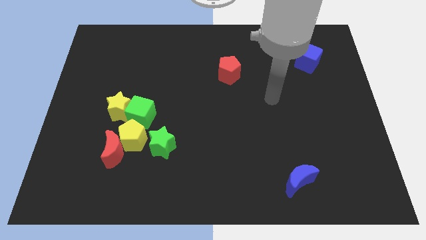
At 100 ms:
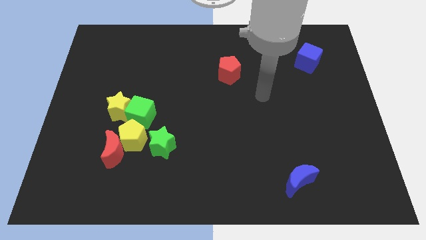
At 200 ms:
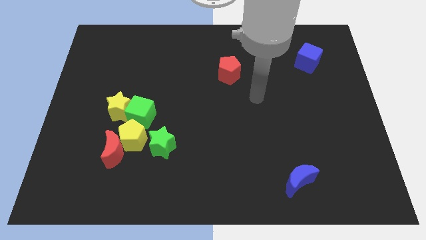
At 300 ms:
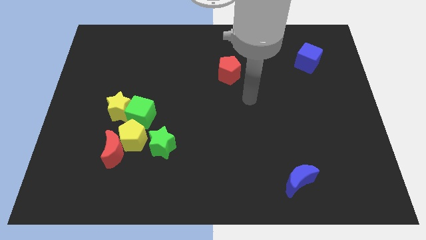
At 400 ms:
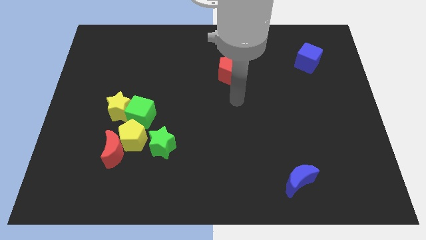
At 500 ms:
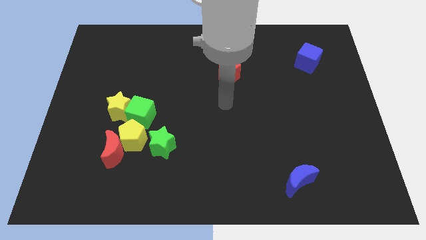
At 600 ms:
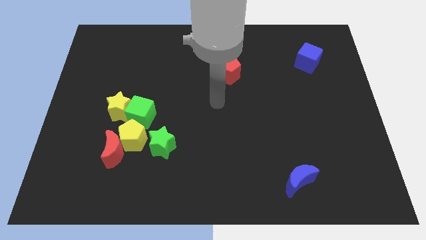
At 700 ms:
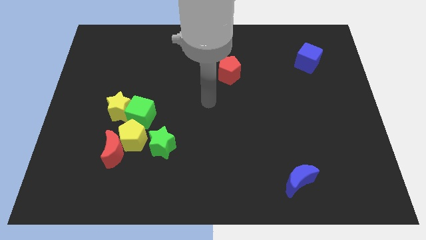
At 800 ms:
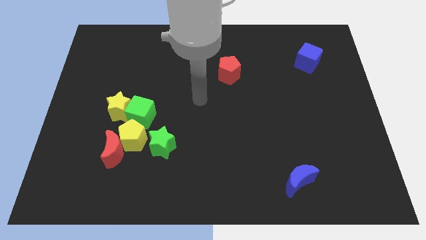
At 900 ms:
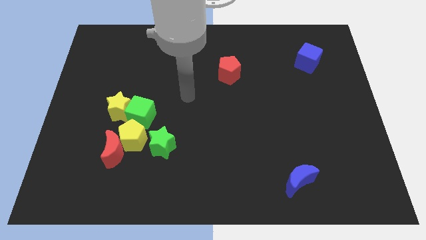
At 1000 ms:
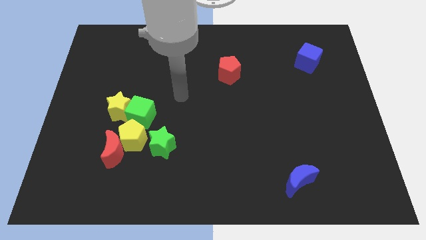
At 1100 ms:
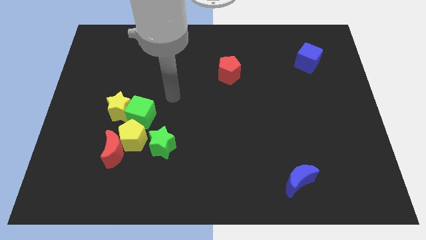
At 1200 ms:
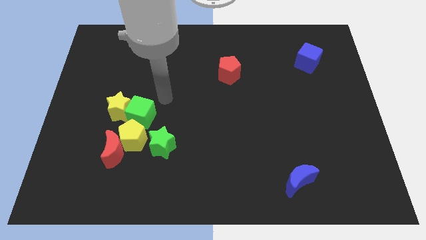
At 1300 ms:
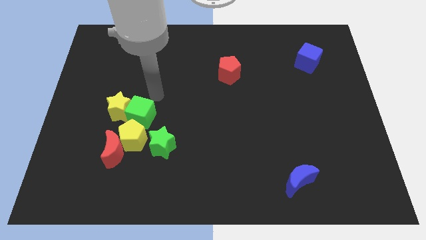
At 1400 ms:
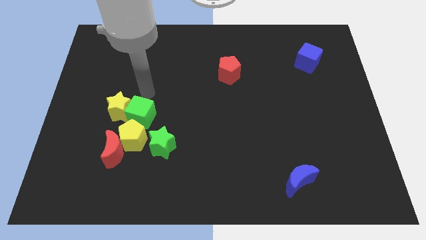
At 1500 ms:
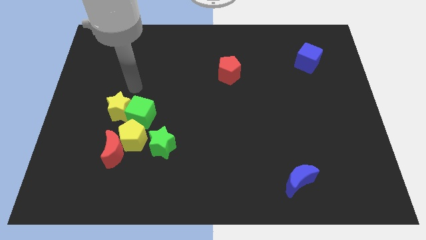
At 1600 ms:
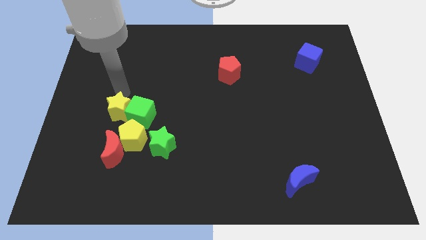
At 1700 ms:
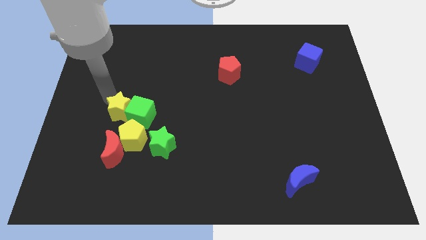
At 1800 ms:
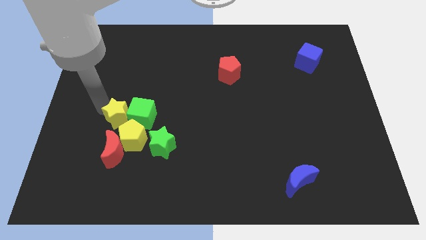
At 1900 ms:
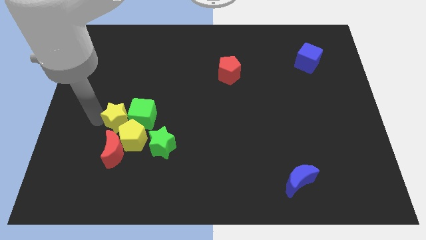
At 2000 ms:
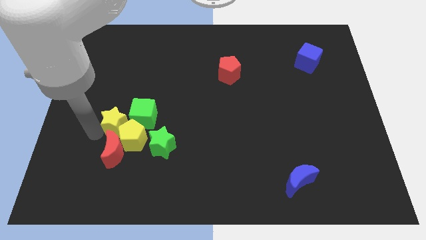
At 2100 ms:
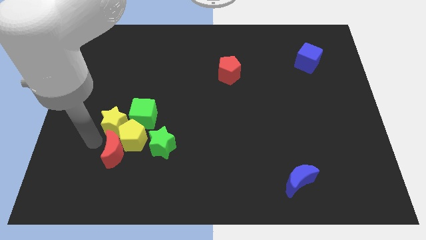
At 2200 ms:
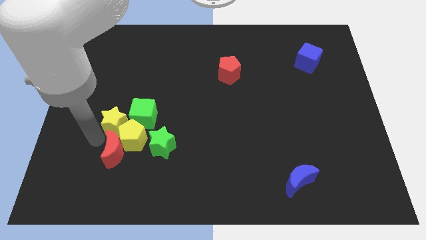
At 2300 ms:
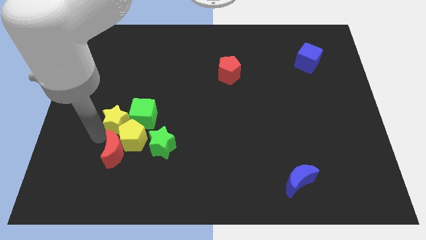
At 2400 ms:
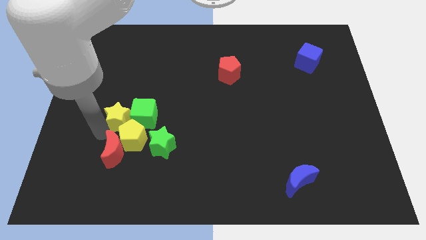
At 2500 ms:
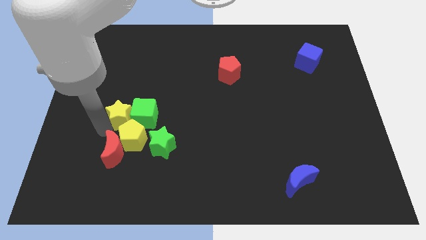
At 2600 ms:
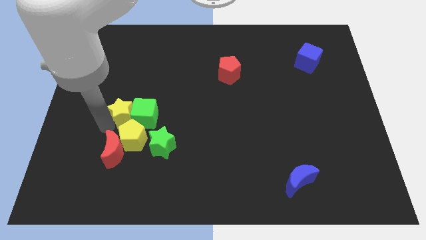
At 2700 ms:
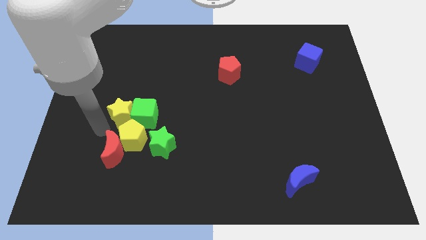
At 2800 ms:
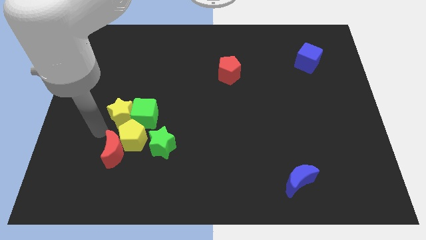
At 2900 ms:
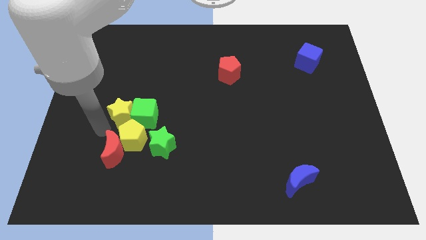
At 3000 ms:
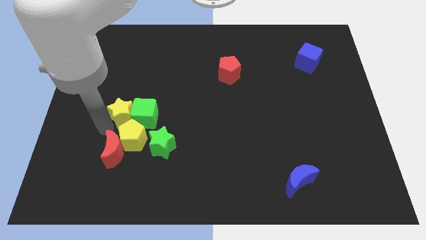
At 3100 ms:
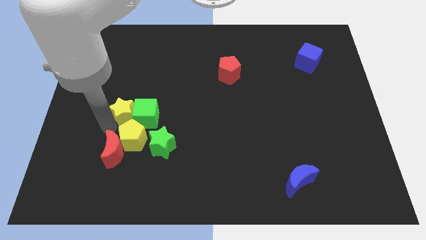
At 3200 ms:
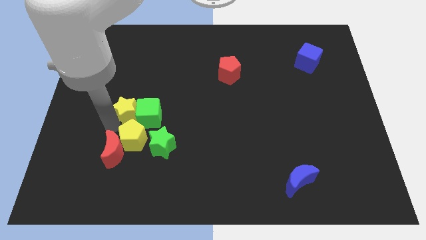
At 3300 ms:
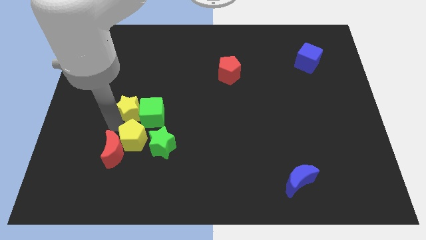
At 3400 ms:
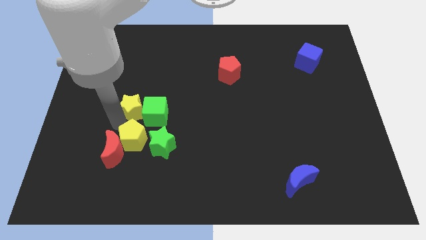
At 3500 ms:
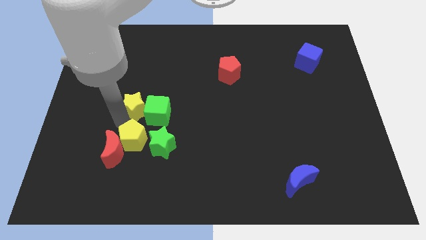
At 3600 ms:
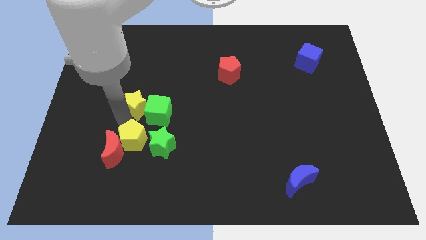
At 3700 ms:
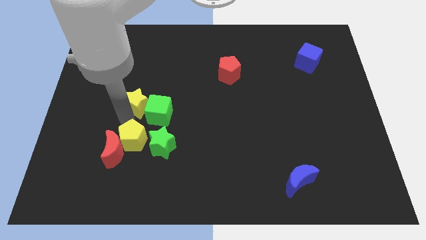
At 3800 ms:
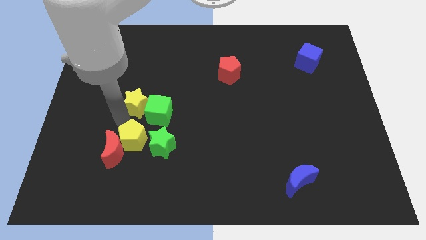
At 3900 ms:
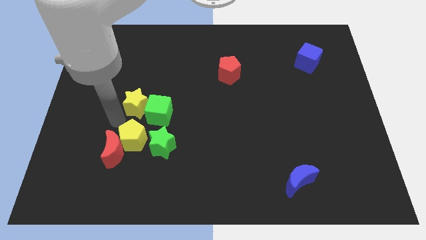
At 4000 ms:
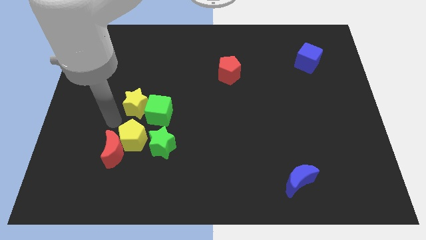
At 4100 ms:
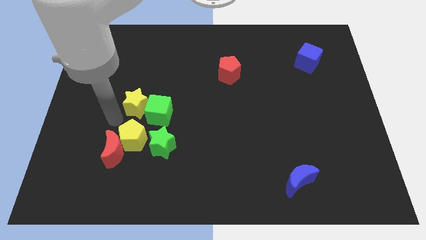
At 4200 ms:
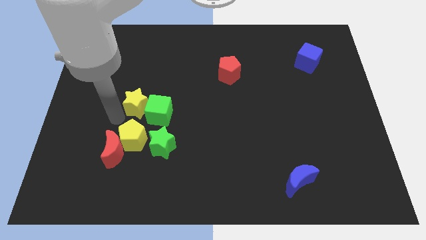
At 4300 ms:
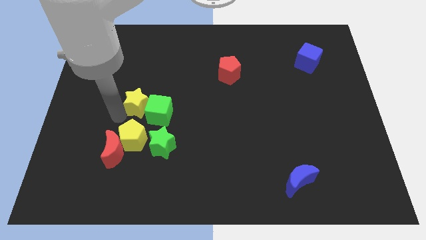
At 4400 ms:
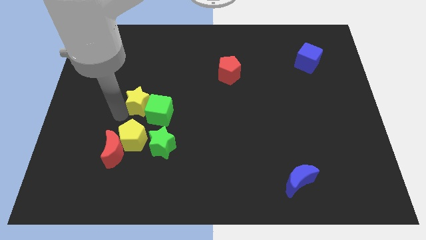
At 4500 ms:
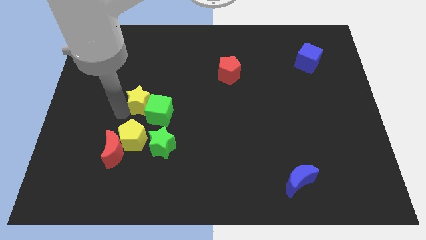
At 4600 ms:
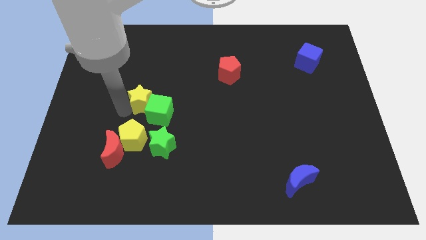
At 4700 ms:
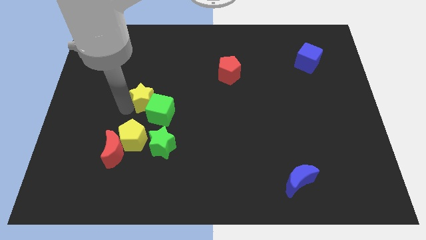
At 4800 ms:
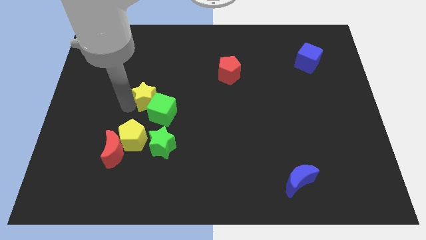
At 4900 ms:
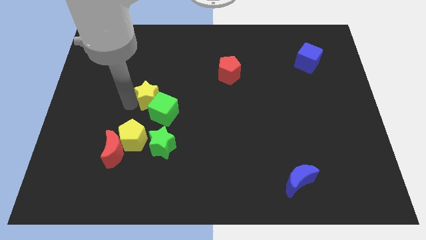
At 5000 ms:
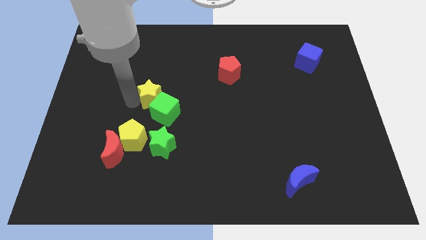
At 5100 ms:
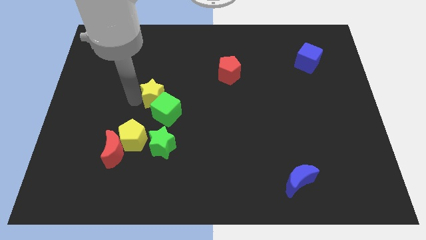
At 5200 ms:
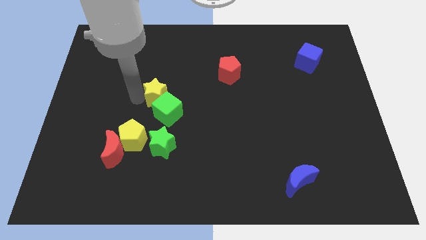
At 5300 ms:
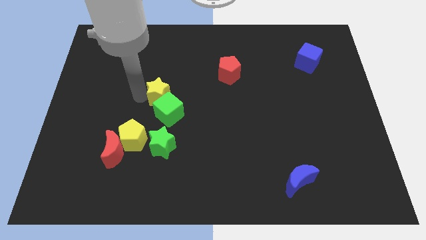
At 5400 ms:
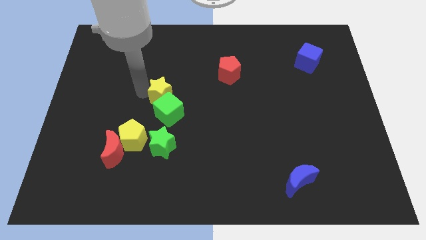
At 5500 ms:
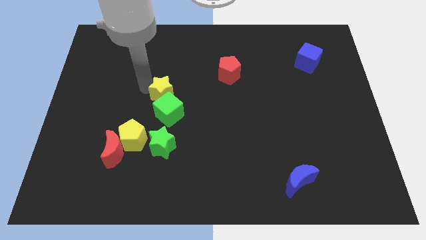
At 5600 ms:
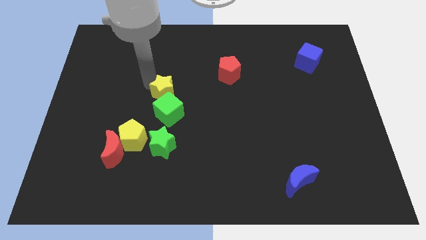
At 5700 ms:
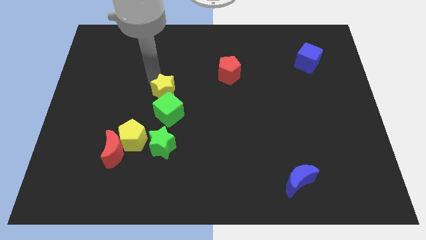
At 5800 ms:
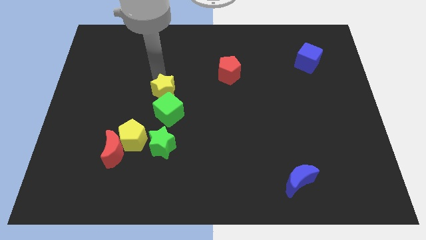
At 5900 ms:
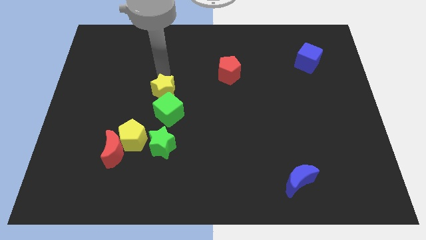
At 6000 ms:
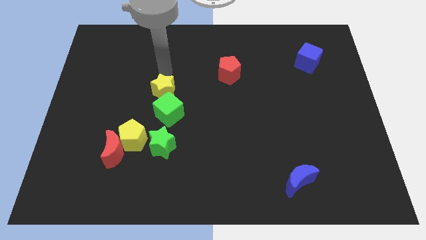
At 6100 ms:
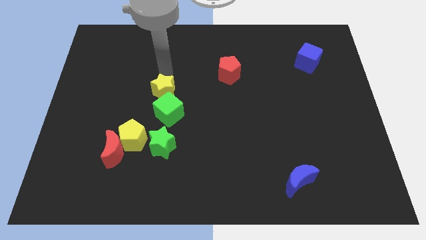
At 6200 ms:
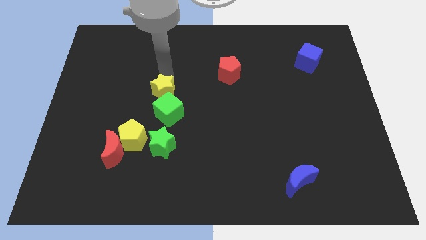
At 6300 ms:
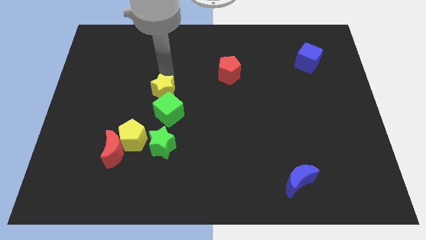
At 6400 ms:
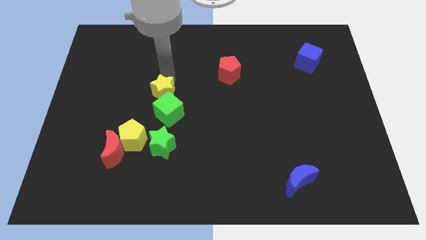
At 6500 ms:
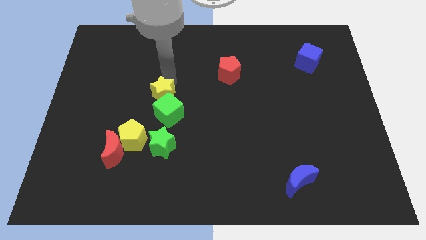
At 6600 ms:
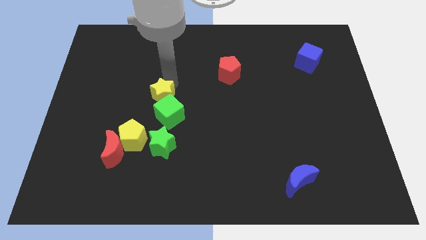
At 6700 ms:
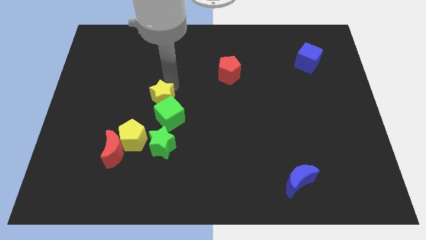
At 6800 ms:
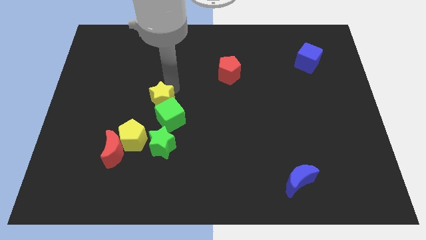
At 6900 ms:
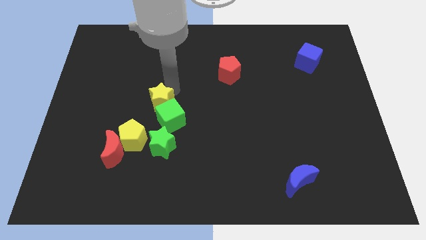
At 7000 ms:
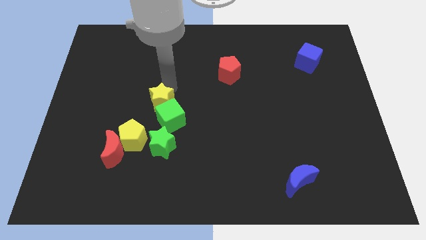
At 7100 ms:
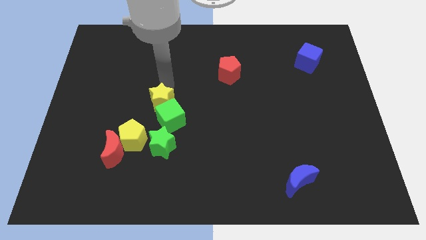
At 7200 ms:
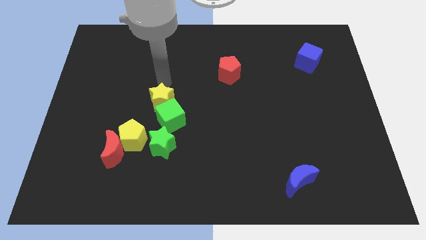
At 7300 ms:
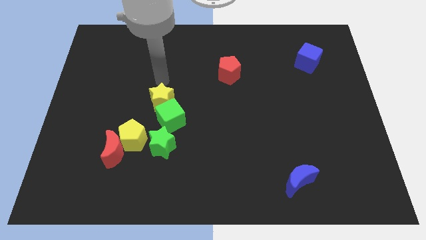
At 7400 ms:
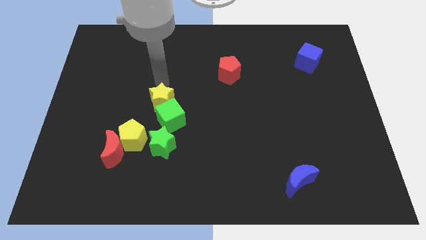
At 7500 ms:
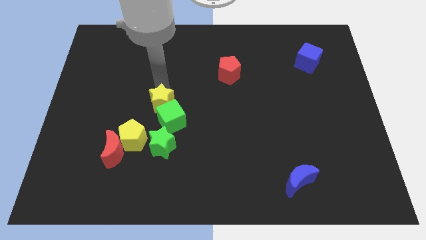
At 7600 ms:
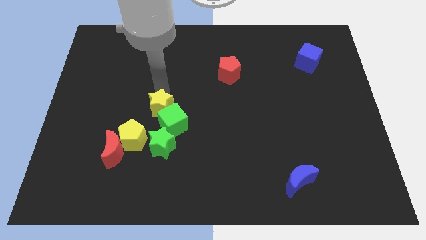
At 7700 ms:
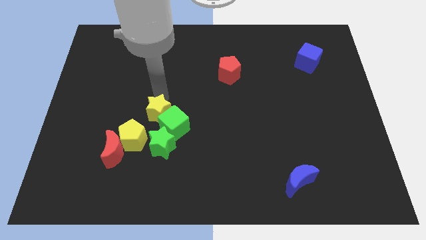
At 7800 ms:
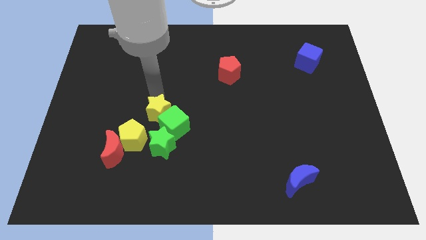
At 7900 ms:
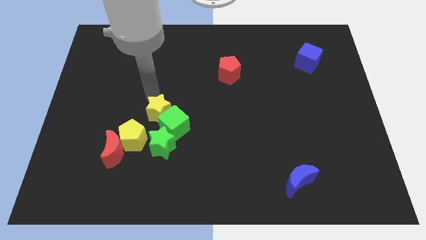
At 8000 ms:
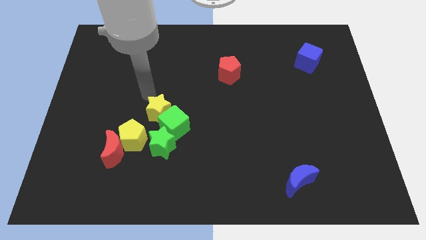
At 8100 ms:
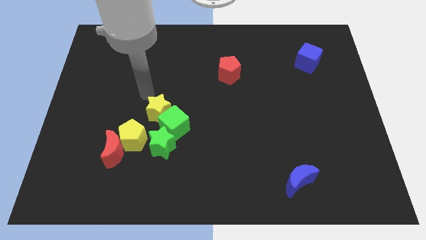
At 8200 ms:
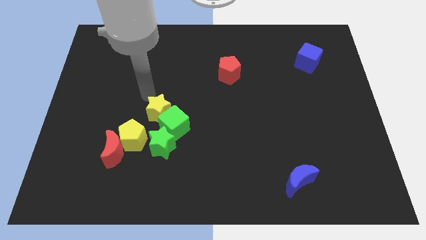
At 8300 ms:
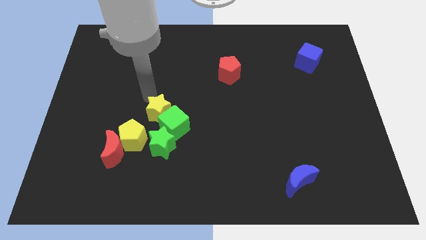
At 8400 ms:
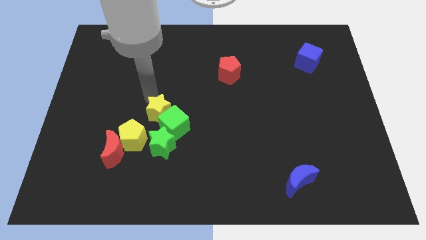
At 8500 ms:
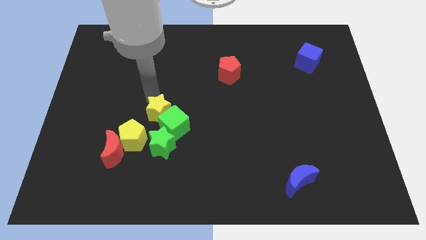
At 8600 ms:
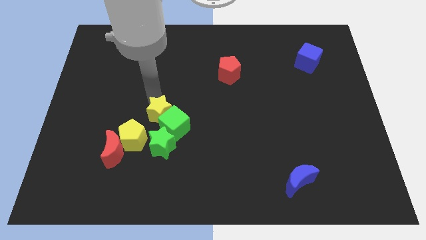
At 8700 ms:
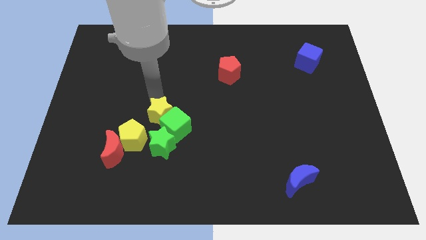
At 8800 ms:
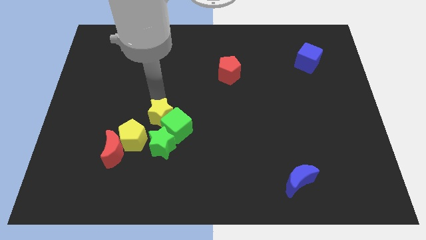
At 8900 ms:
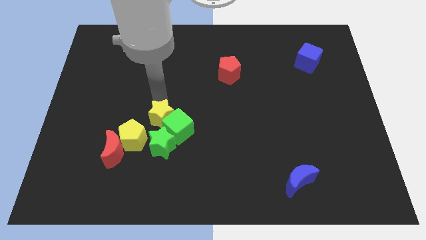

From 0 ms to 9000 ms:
slide the yellow star somewhat diagonally downwards and right
